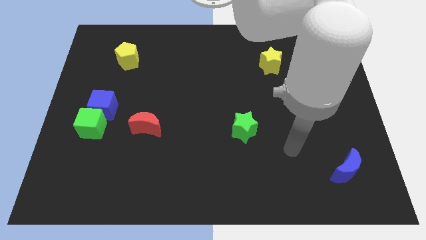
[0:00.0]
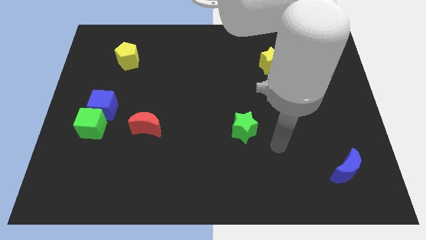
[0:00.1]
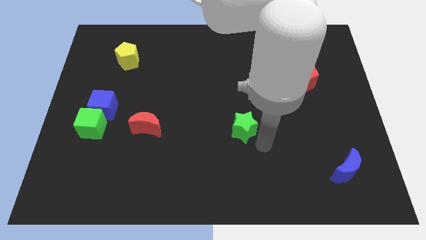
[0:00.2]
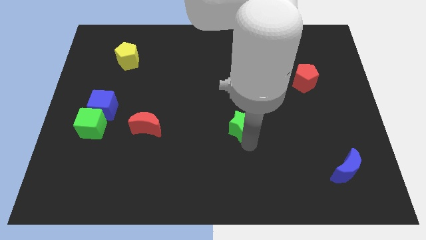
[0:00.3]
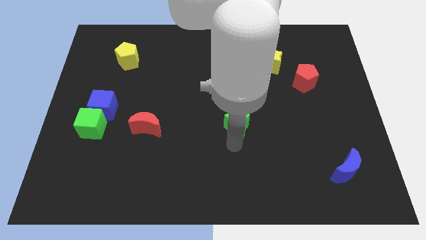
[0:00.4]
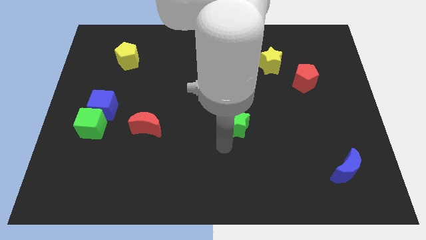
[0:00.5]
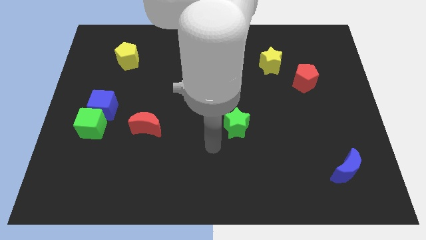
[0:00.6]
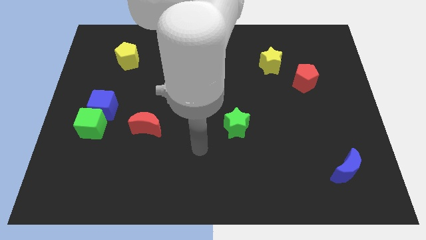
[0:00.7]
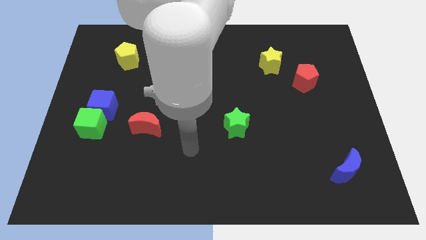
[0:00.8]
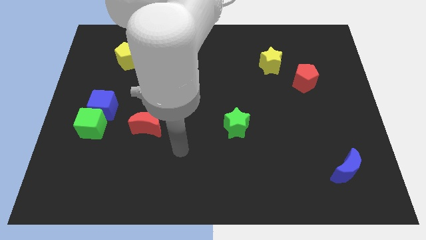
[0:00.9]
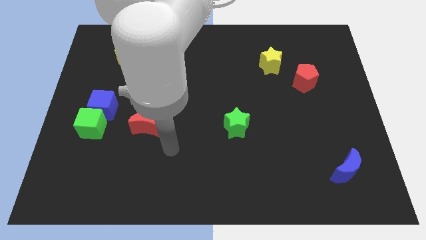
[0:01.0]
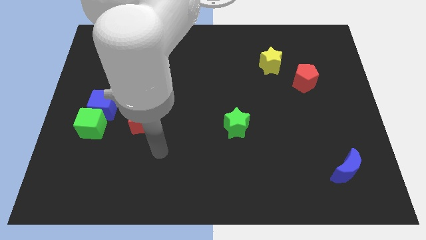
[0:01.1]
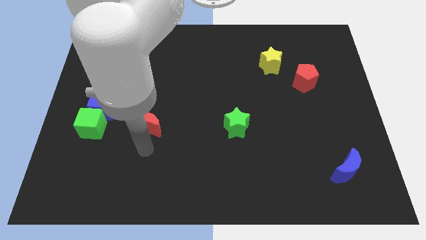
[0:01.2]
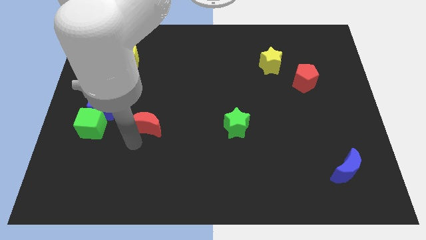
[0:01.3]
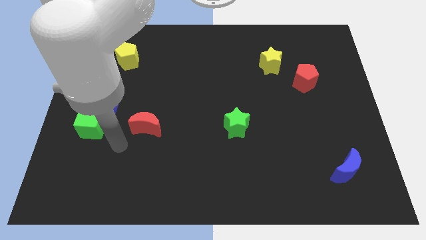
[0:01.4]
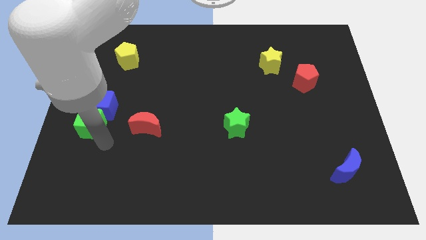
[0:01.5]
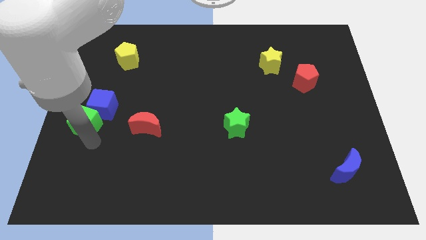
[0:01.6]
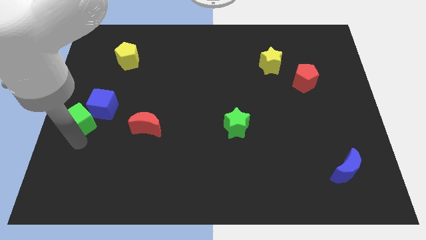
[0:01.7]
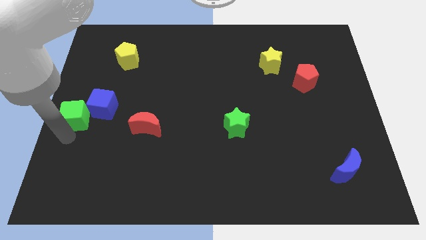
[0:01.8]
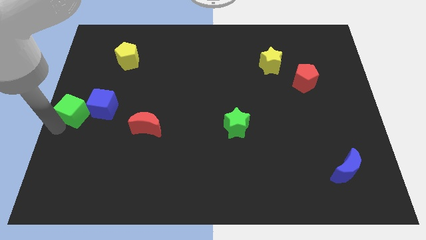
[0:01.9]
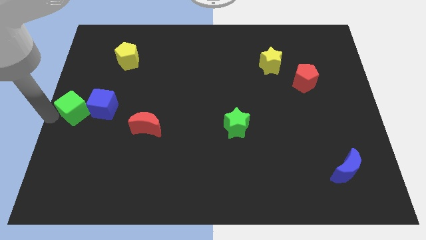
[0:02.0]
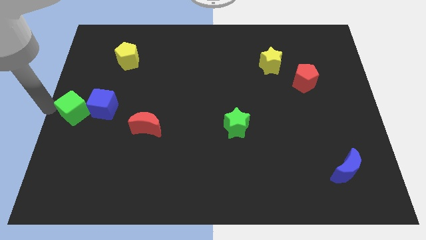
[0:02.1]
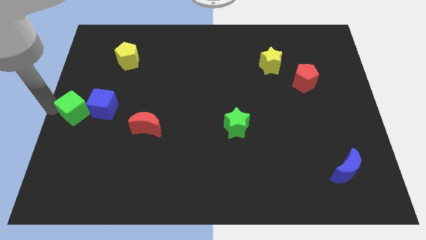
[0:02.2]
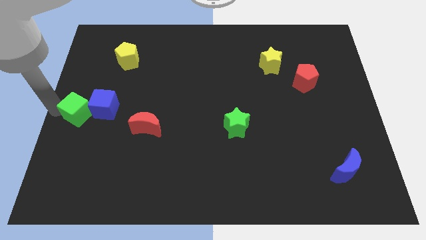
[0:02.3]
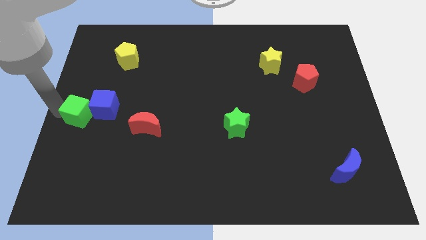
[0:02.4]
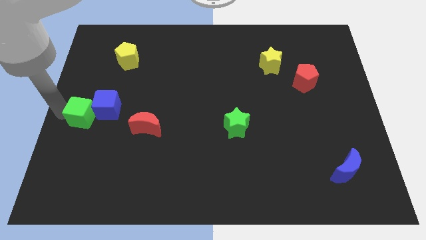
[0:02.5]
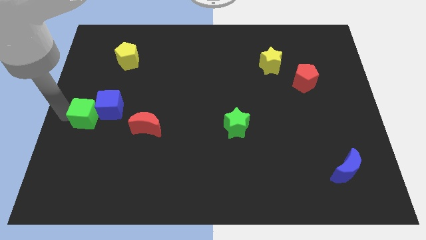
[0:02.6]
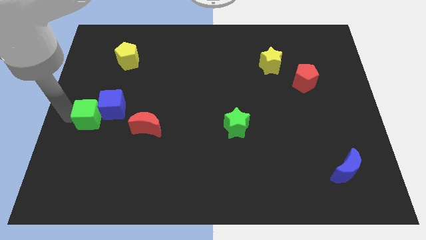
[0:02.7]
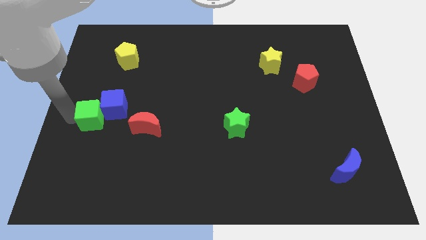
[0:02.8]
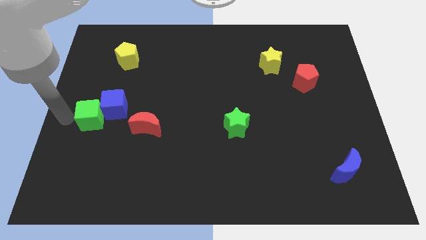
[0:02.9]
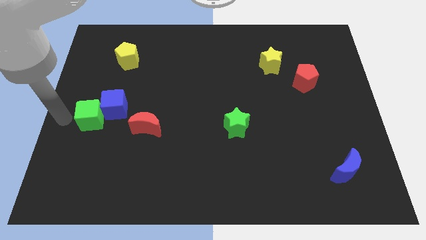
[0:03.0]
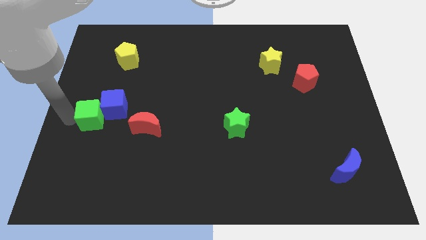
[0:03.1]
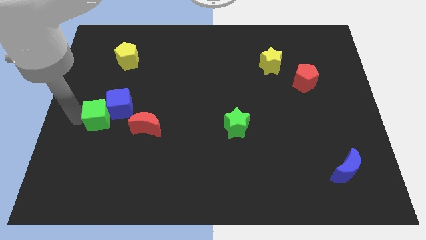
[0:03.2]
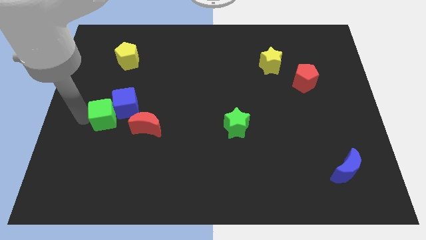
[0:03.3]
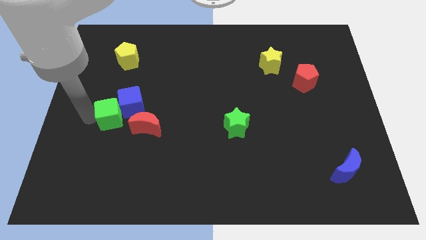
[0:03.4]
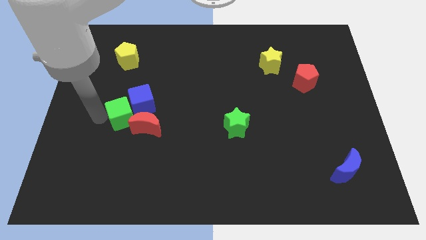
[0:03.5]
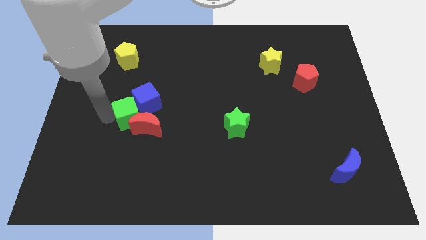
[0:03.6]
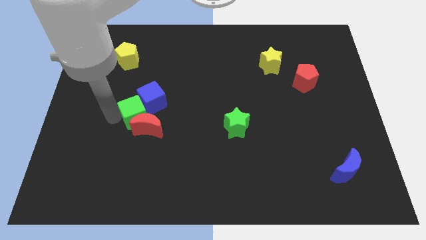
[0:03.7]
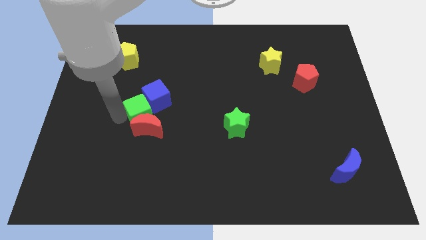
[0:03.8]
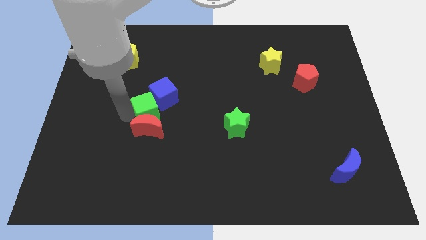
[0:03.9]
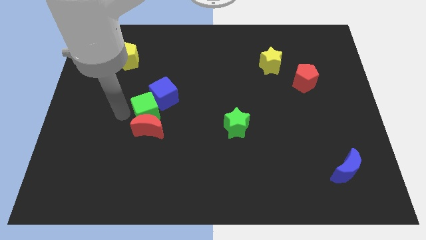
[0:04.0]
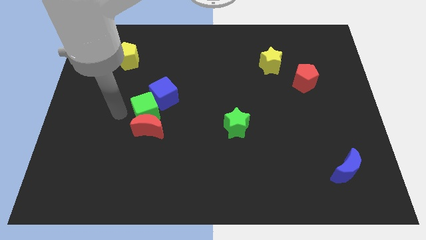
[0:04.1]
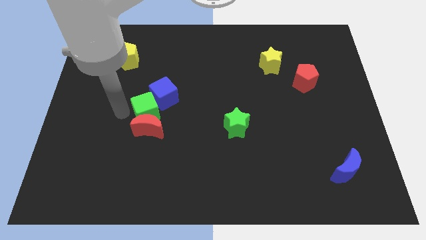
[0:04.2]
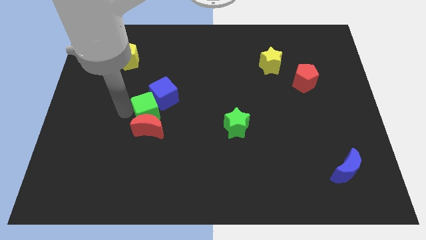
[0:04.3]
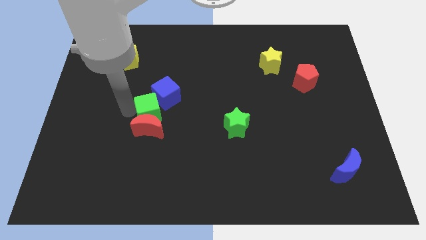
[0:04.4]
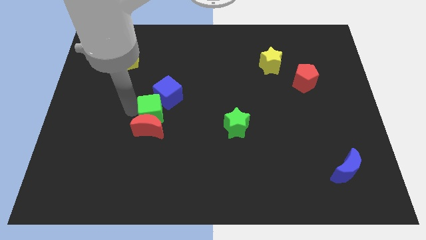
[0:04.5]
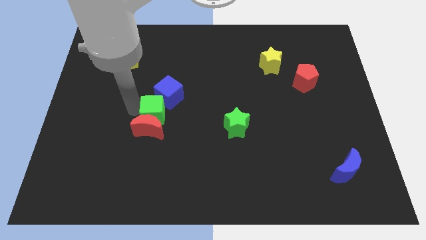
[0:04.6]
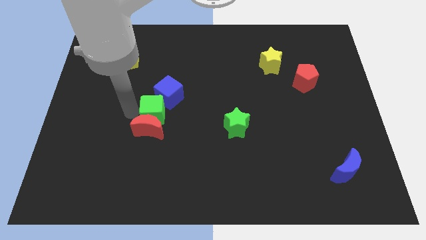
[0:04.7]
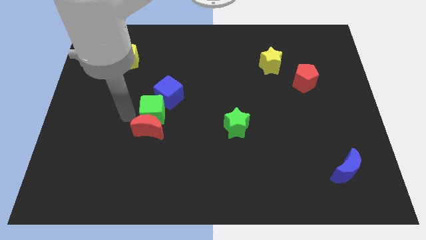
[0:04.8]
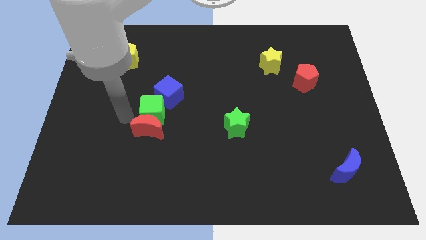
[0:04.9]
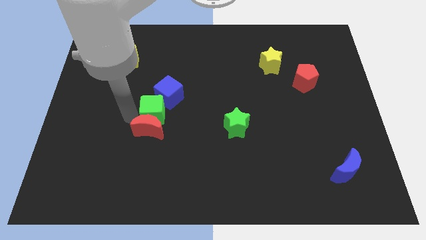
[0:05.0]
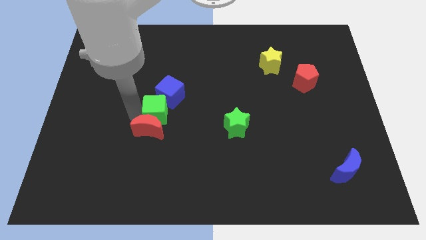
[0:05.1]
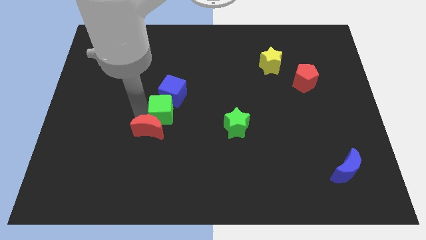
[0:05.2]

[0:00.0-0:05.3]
move the green cube to the center of the board
